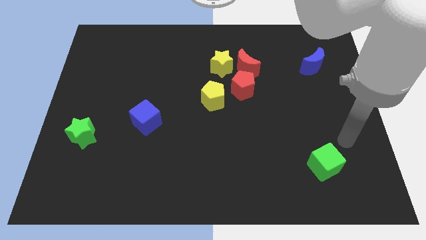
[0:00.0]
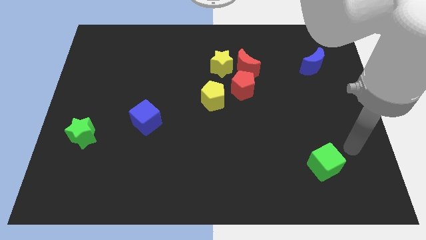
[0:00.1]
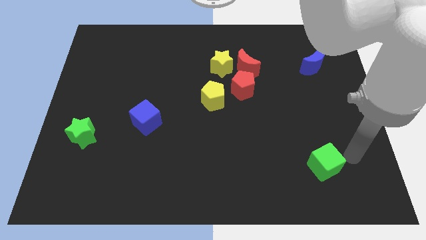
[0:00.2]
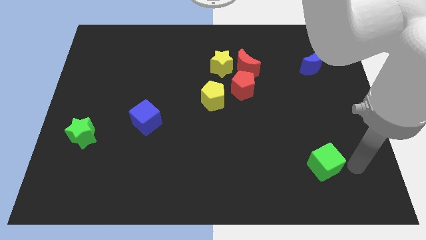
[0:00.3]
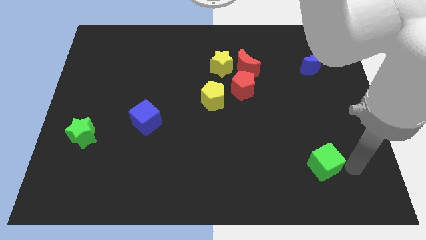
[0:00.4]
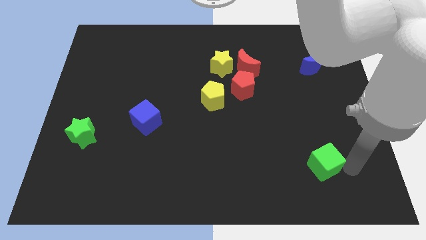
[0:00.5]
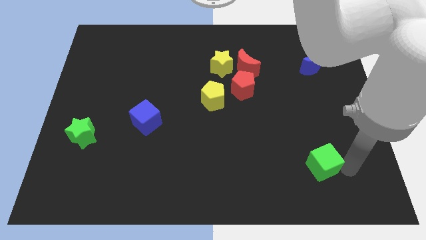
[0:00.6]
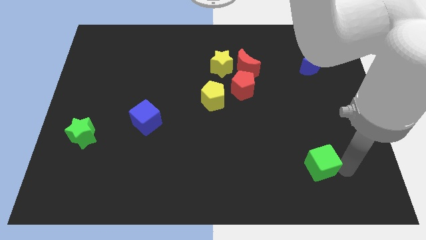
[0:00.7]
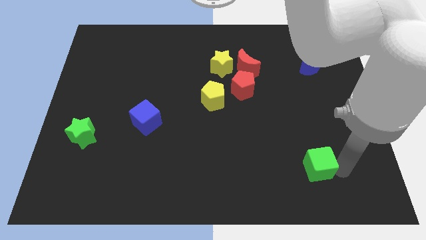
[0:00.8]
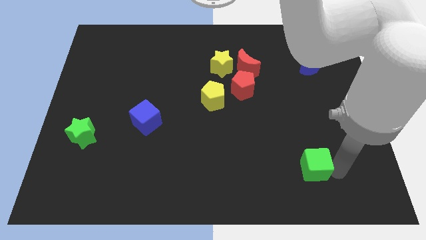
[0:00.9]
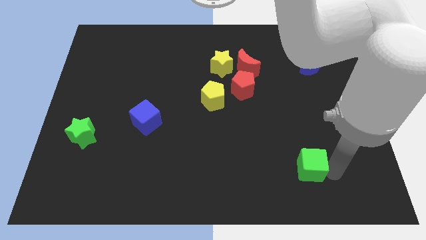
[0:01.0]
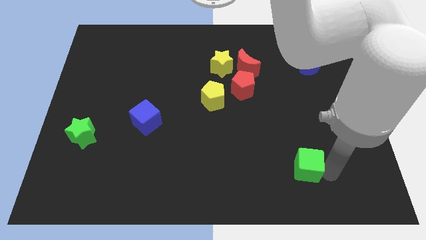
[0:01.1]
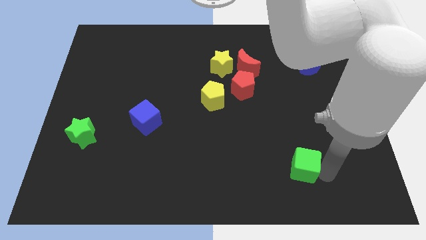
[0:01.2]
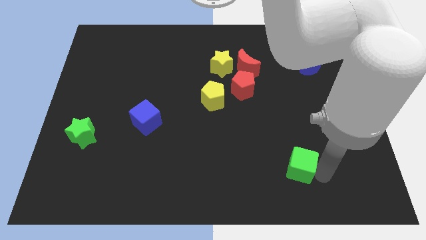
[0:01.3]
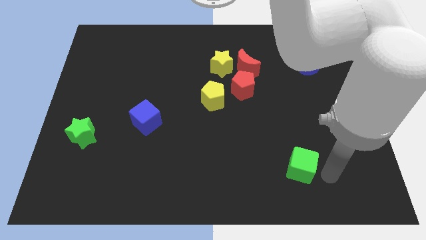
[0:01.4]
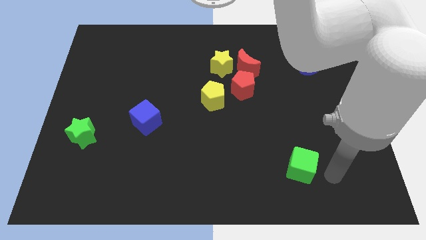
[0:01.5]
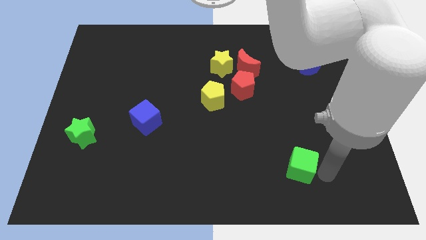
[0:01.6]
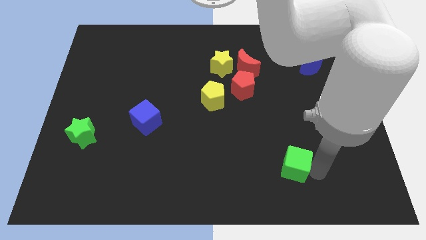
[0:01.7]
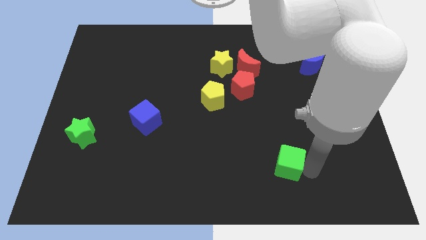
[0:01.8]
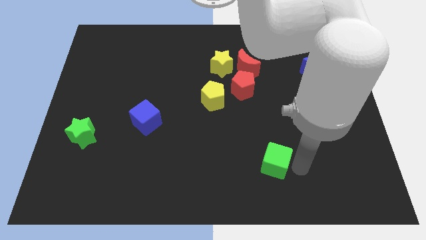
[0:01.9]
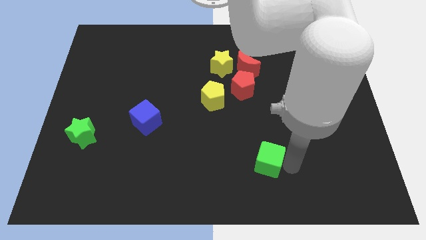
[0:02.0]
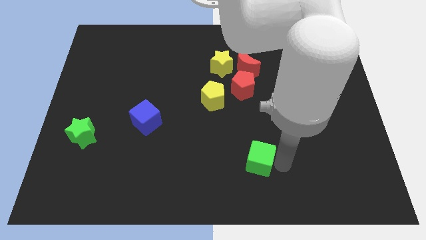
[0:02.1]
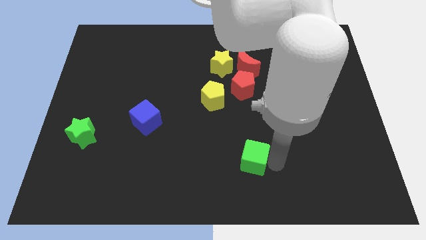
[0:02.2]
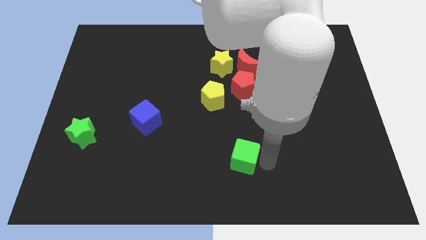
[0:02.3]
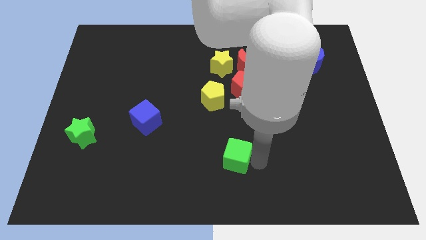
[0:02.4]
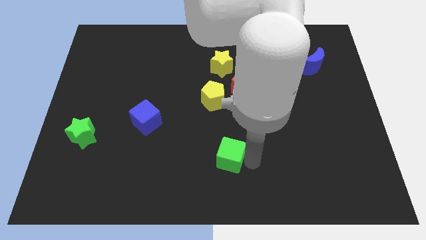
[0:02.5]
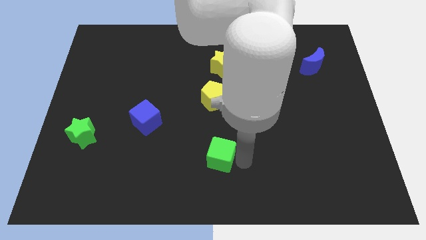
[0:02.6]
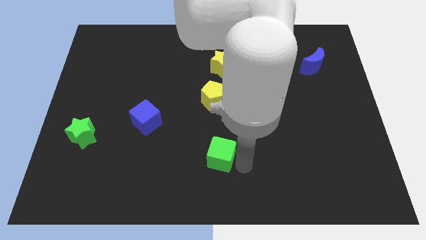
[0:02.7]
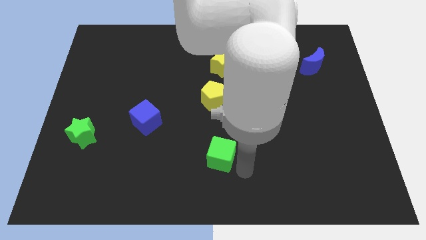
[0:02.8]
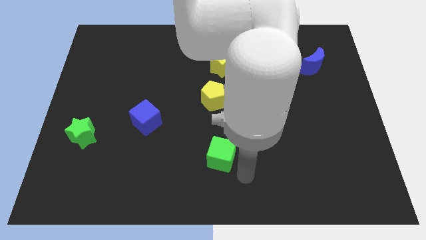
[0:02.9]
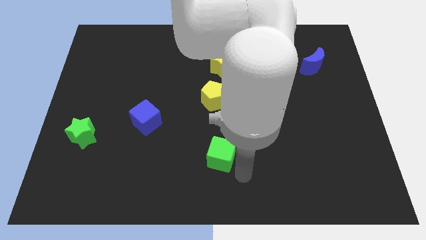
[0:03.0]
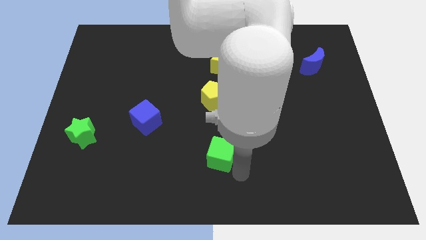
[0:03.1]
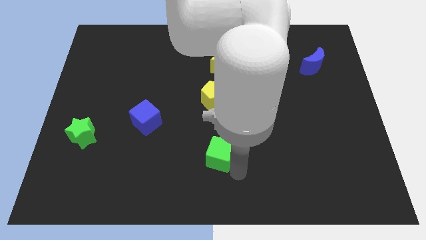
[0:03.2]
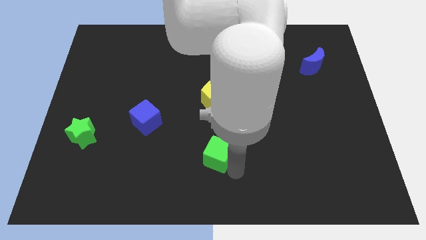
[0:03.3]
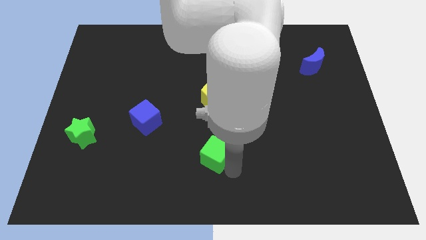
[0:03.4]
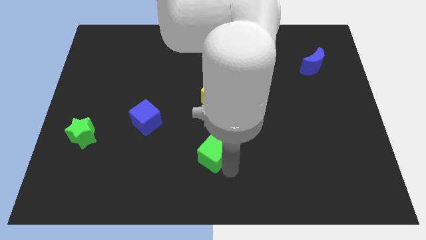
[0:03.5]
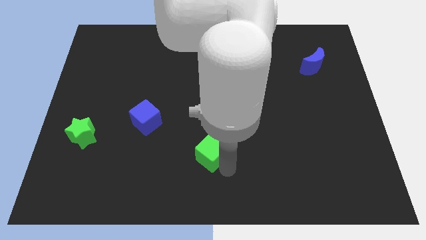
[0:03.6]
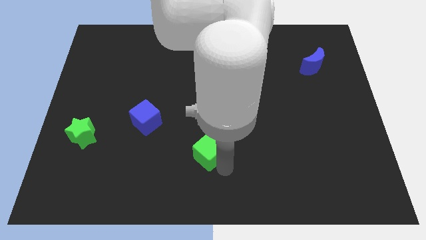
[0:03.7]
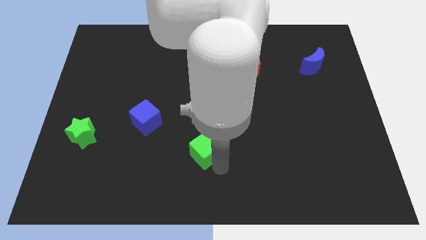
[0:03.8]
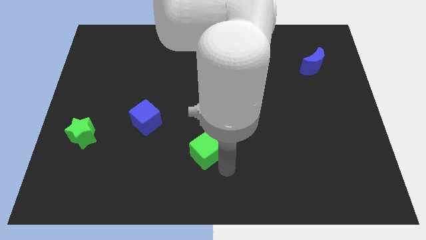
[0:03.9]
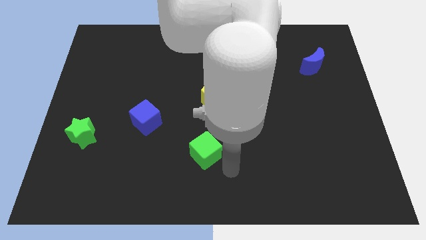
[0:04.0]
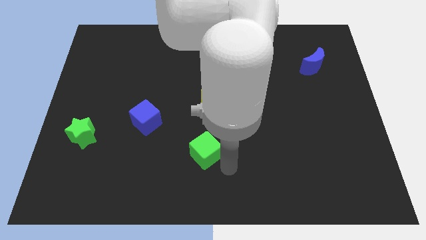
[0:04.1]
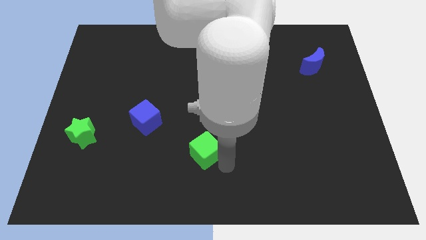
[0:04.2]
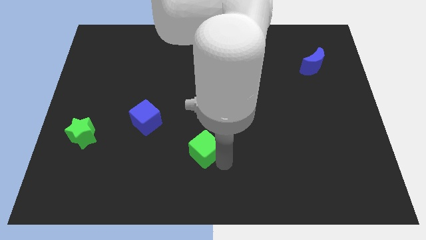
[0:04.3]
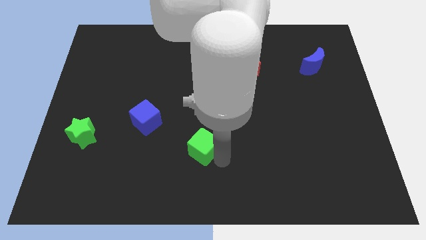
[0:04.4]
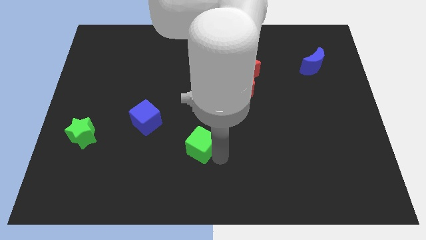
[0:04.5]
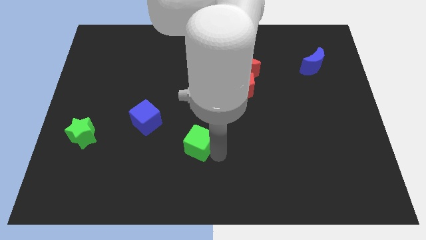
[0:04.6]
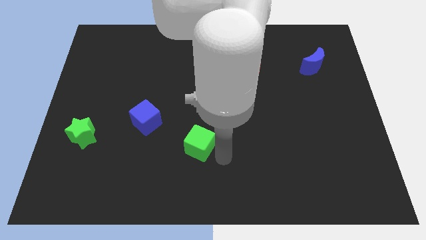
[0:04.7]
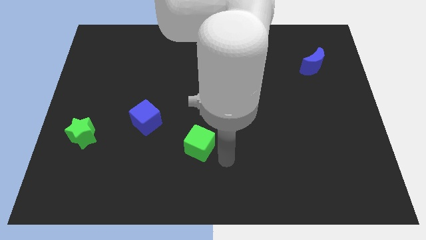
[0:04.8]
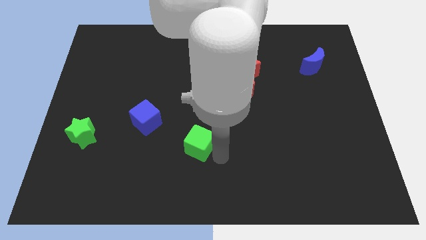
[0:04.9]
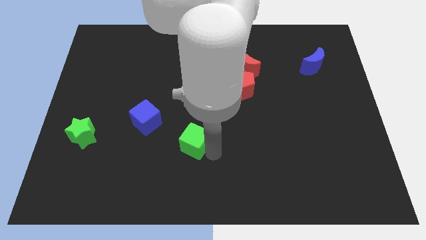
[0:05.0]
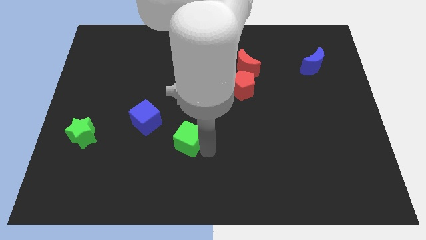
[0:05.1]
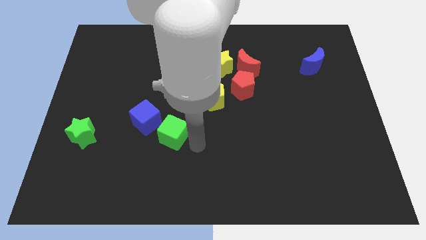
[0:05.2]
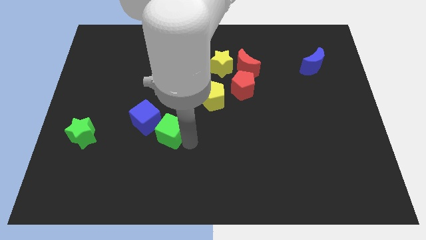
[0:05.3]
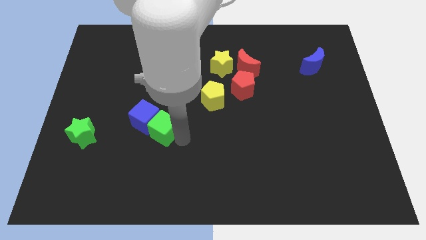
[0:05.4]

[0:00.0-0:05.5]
slide the green cube towards the blue cube

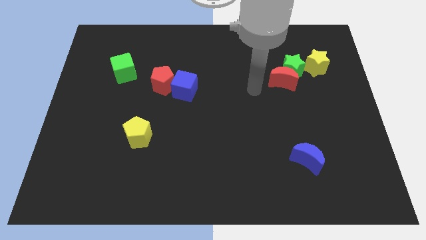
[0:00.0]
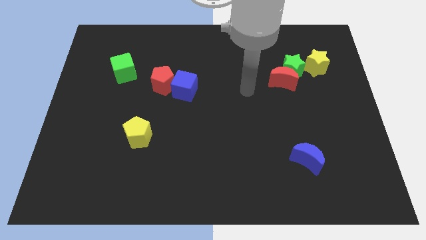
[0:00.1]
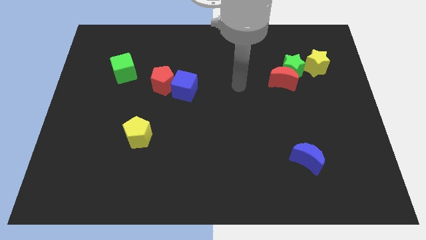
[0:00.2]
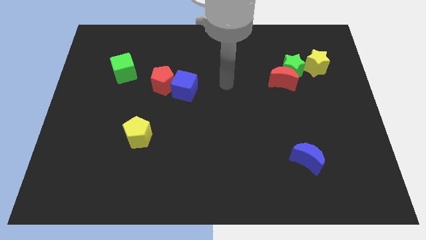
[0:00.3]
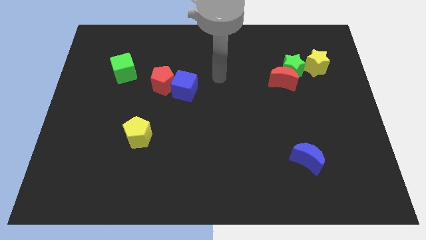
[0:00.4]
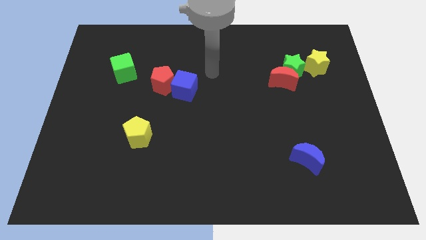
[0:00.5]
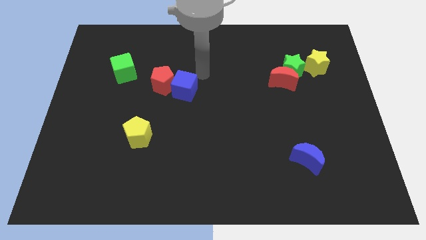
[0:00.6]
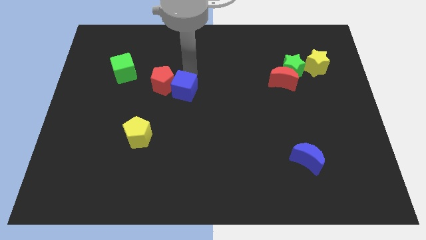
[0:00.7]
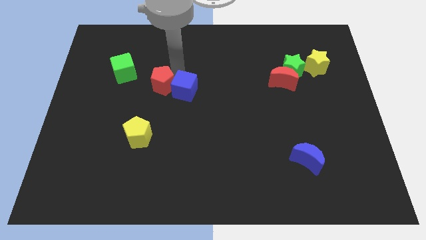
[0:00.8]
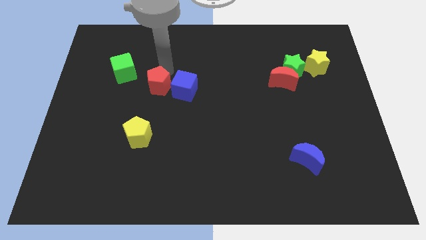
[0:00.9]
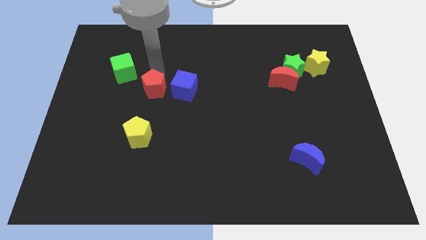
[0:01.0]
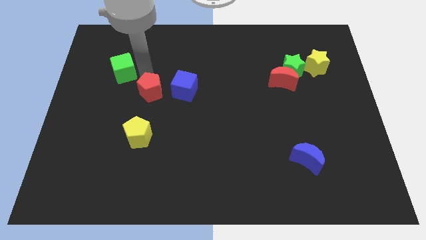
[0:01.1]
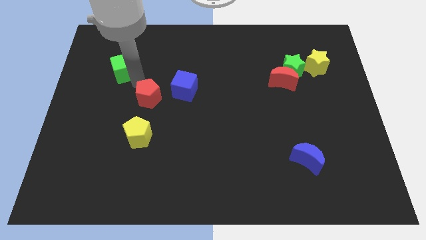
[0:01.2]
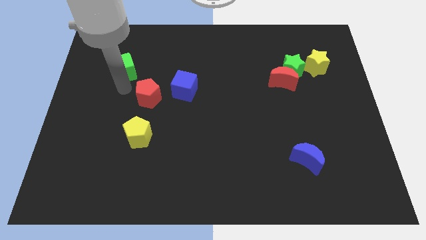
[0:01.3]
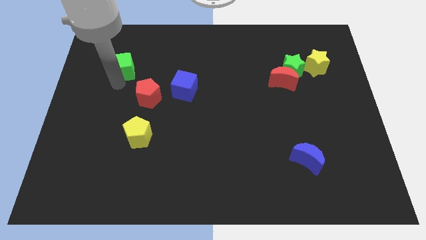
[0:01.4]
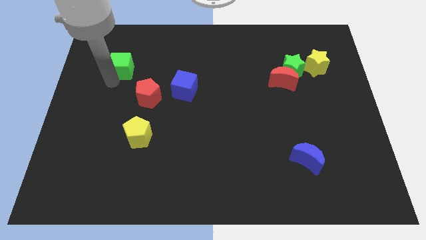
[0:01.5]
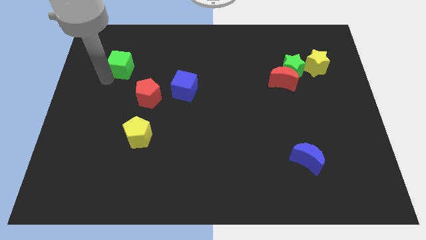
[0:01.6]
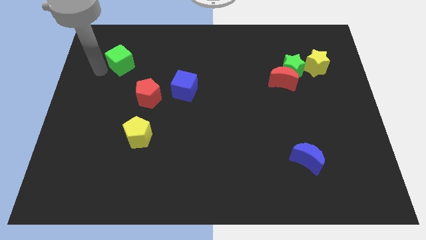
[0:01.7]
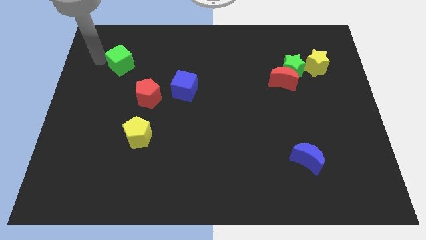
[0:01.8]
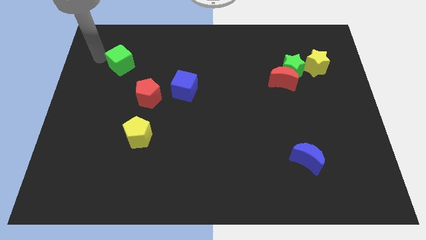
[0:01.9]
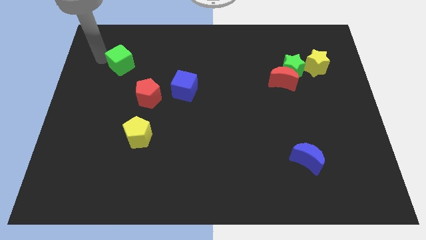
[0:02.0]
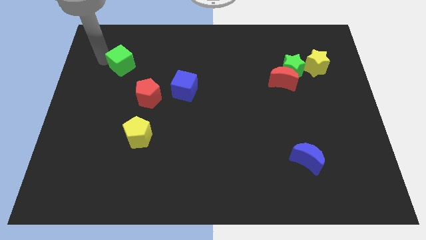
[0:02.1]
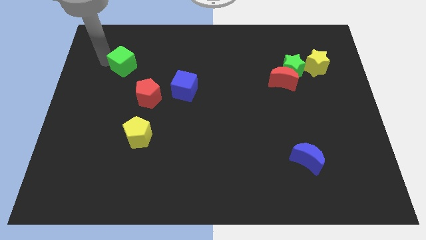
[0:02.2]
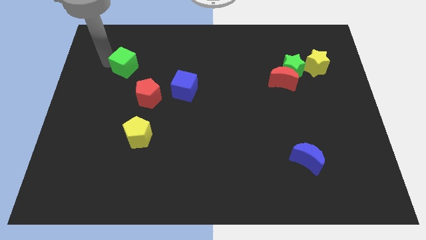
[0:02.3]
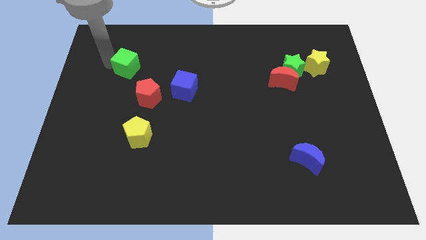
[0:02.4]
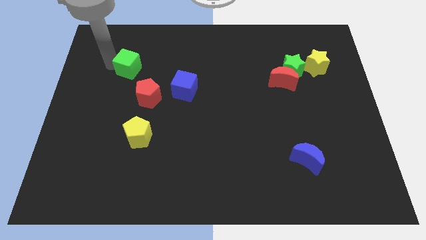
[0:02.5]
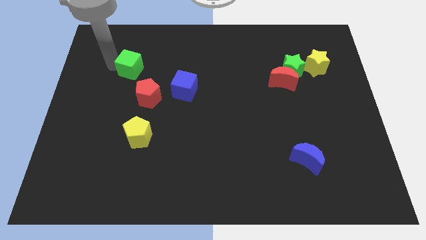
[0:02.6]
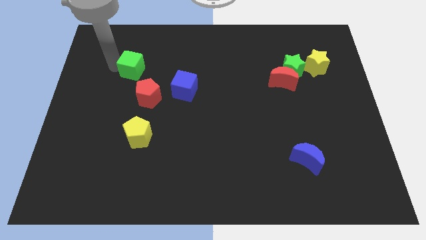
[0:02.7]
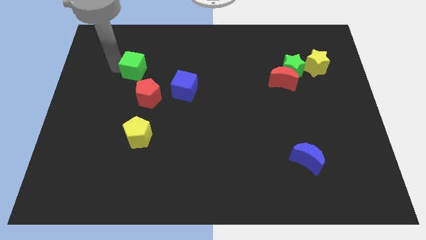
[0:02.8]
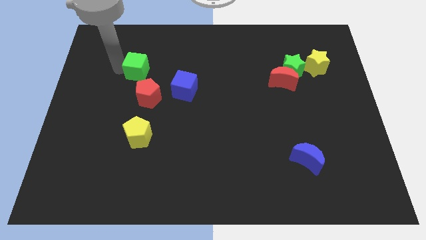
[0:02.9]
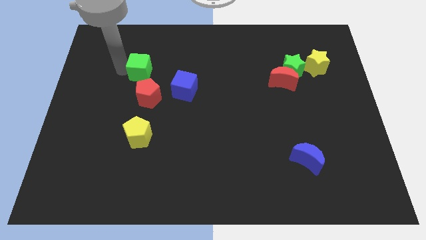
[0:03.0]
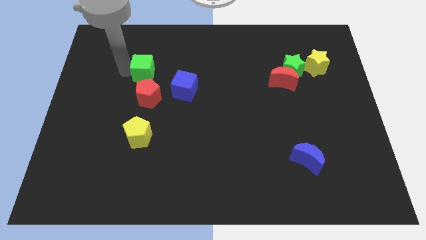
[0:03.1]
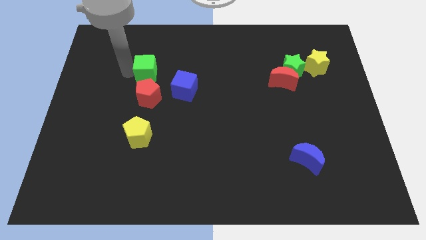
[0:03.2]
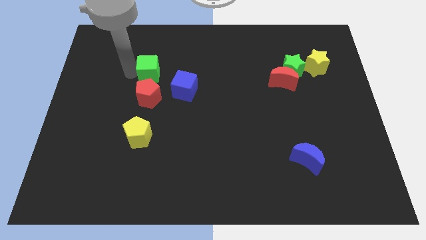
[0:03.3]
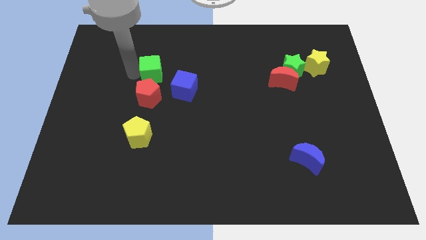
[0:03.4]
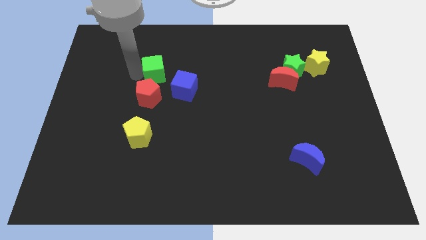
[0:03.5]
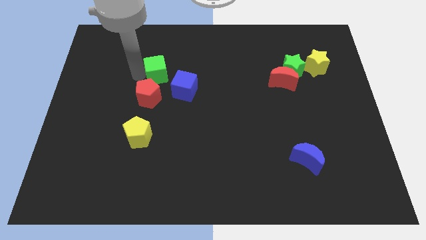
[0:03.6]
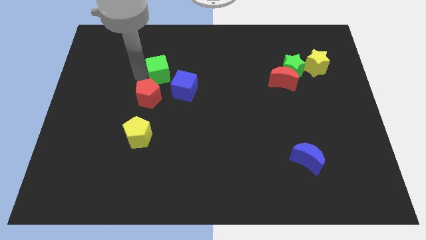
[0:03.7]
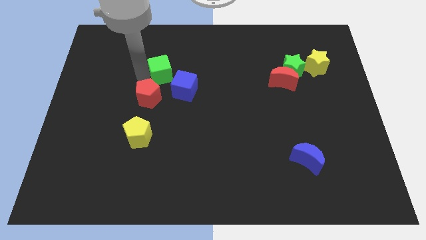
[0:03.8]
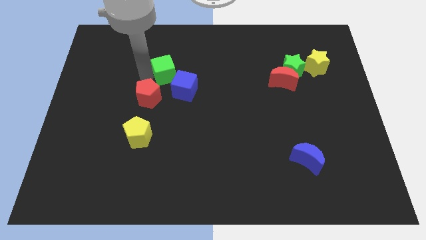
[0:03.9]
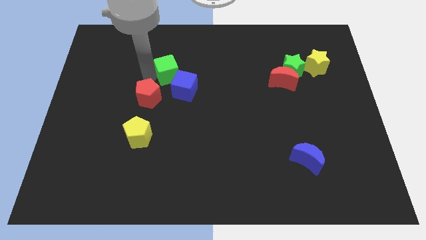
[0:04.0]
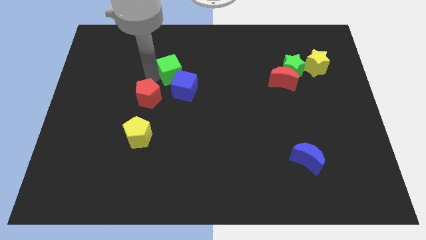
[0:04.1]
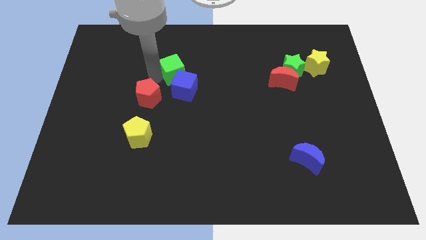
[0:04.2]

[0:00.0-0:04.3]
put the green cube towards the blue cube
